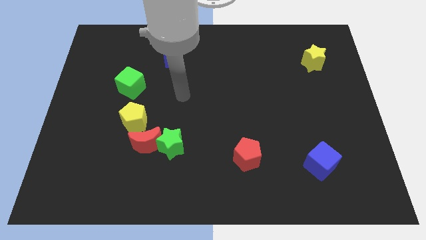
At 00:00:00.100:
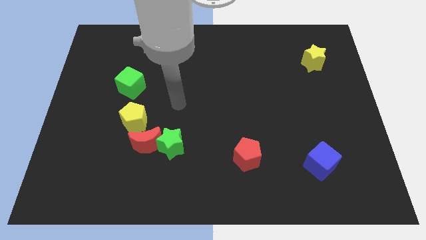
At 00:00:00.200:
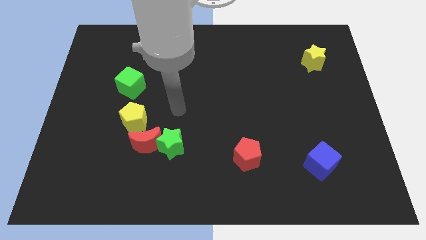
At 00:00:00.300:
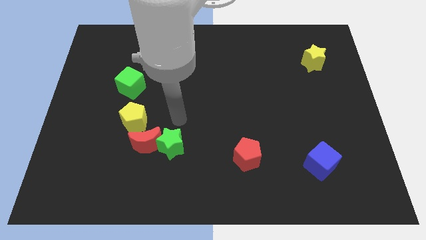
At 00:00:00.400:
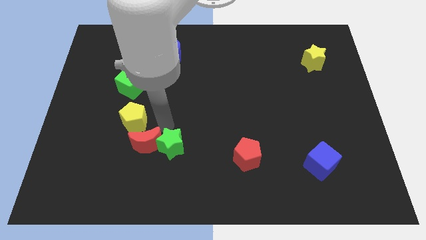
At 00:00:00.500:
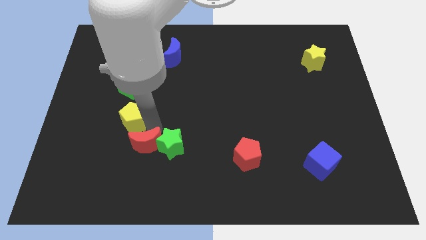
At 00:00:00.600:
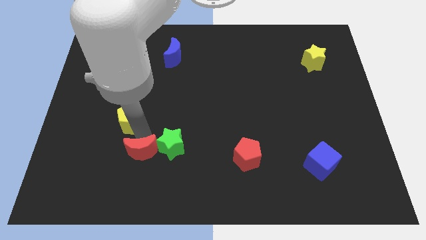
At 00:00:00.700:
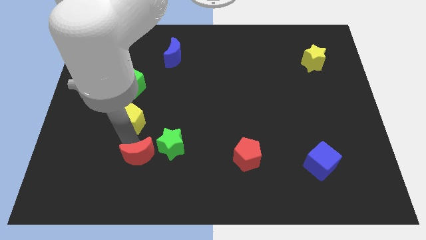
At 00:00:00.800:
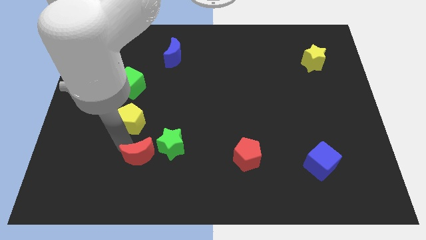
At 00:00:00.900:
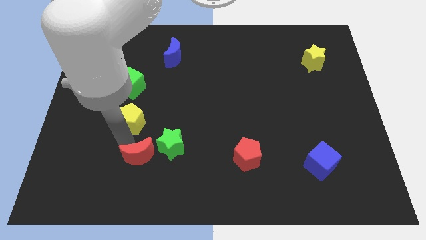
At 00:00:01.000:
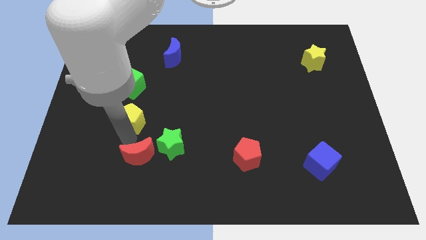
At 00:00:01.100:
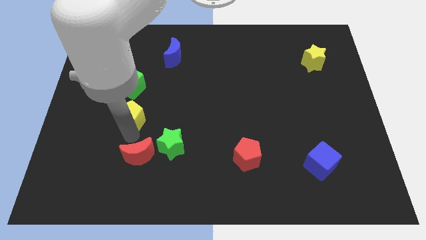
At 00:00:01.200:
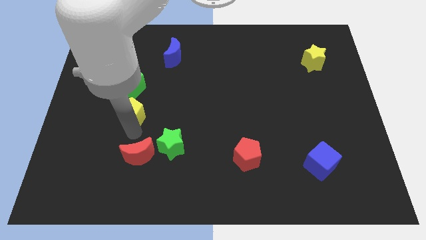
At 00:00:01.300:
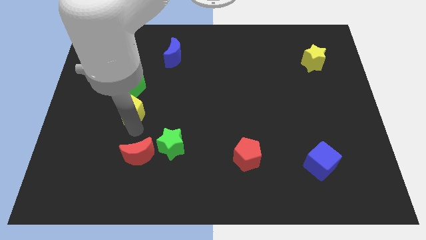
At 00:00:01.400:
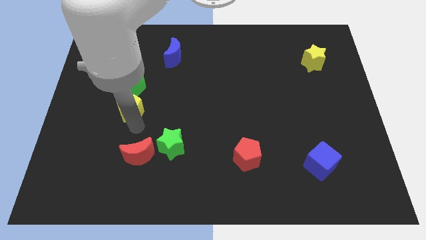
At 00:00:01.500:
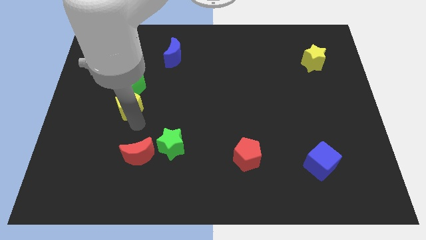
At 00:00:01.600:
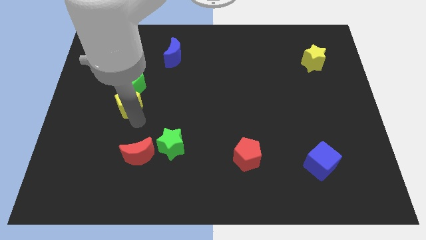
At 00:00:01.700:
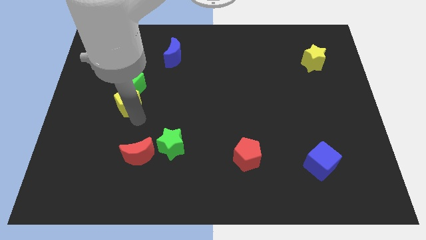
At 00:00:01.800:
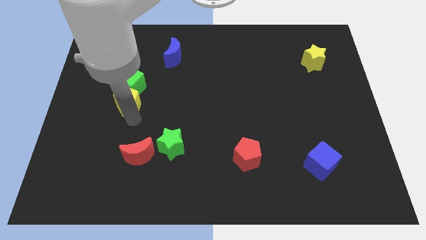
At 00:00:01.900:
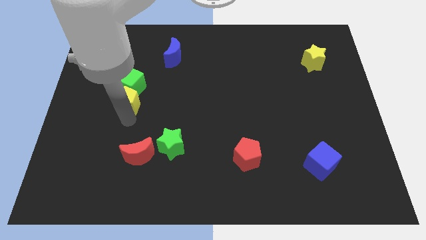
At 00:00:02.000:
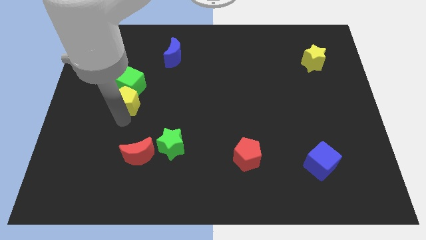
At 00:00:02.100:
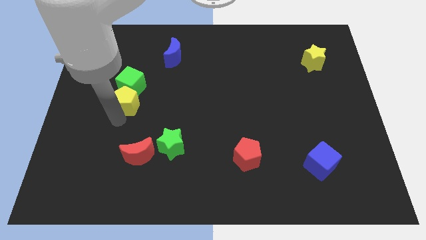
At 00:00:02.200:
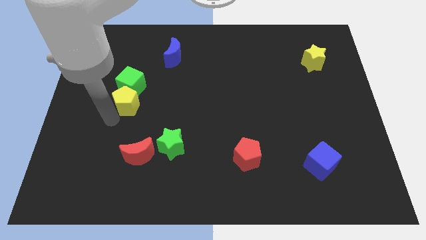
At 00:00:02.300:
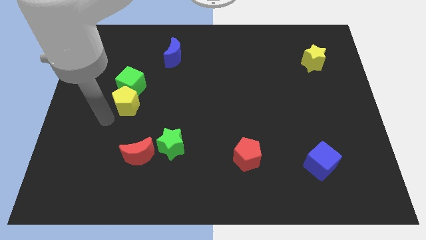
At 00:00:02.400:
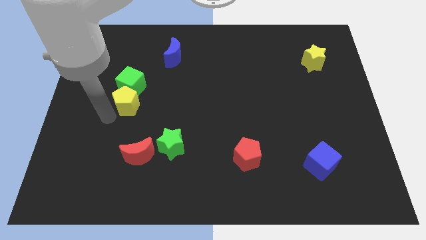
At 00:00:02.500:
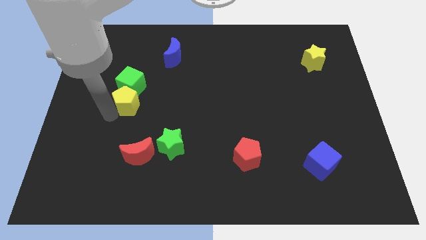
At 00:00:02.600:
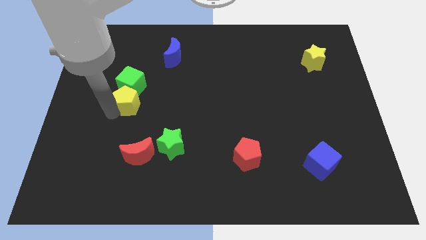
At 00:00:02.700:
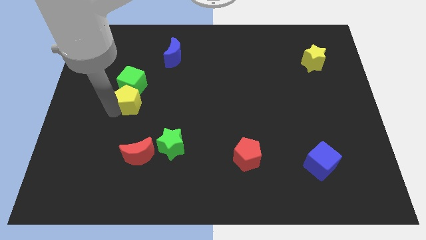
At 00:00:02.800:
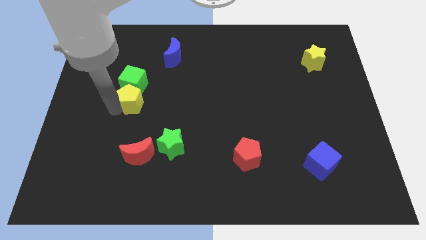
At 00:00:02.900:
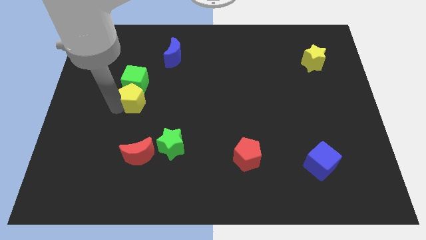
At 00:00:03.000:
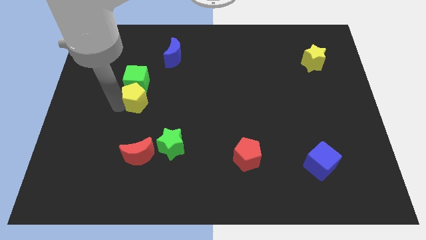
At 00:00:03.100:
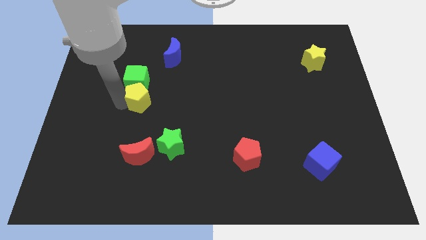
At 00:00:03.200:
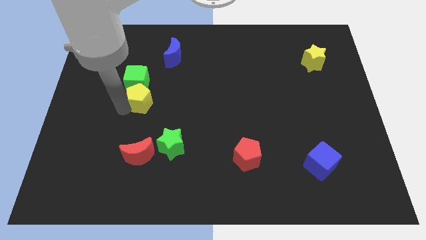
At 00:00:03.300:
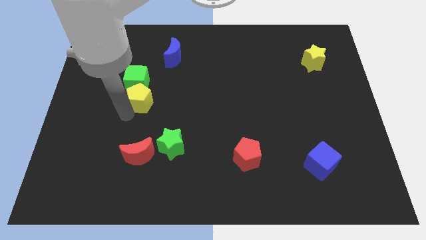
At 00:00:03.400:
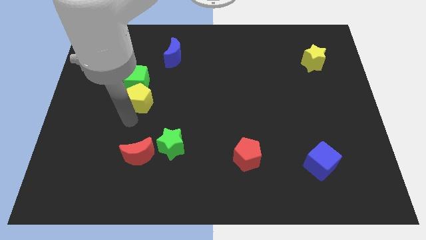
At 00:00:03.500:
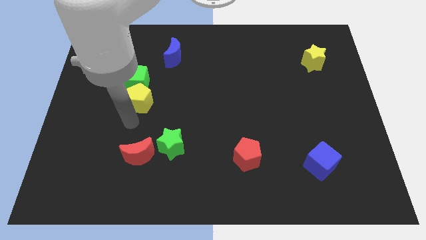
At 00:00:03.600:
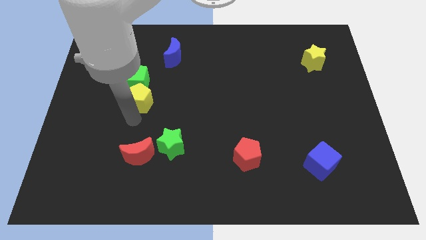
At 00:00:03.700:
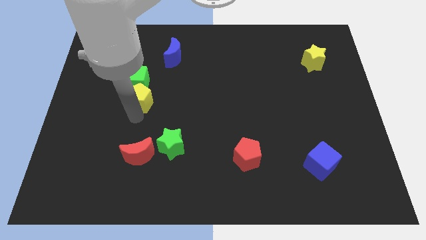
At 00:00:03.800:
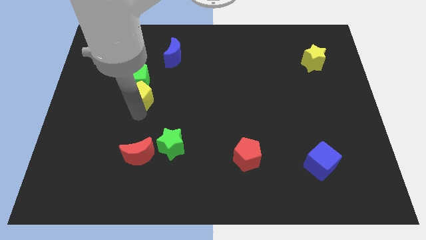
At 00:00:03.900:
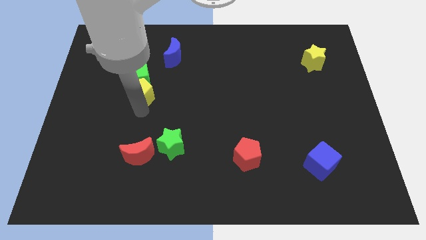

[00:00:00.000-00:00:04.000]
move the yellow pentagon a bit upwards

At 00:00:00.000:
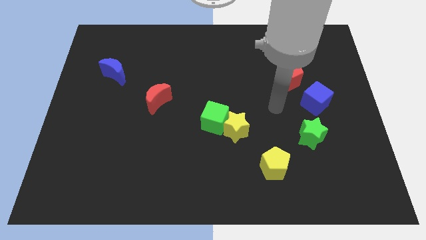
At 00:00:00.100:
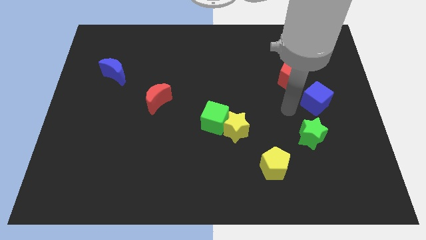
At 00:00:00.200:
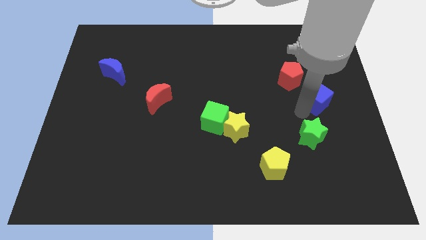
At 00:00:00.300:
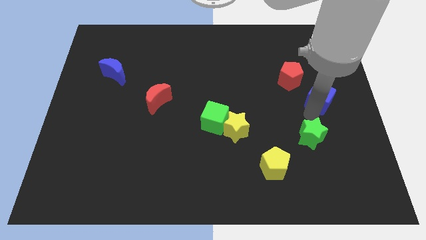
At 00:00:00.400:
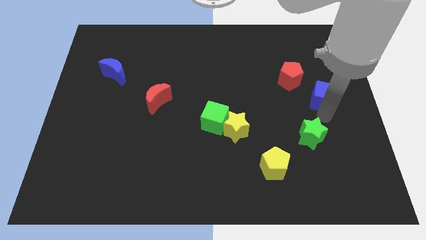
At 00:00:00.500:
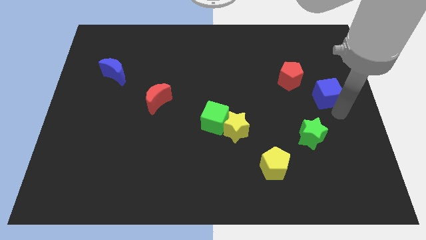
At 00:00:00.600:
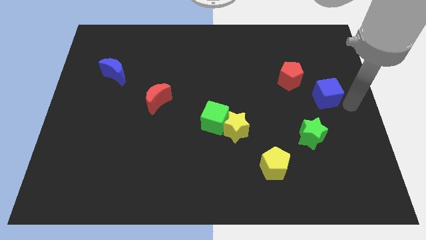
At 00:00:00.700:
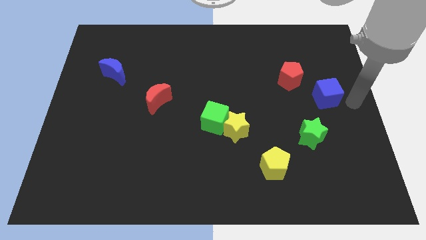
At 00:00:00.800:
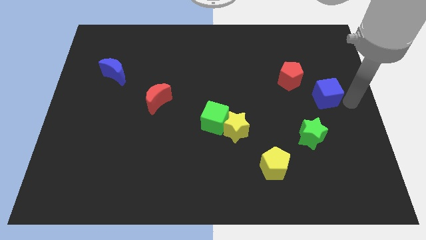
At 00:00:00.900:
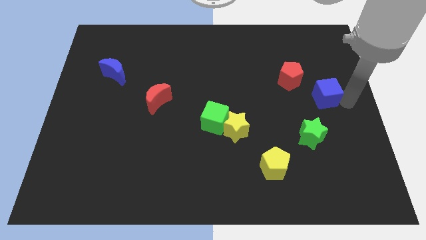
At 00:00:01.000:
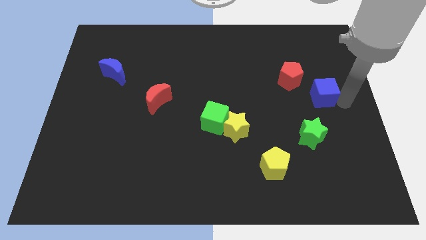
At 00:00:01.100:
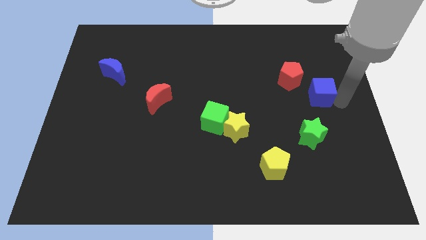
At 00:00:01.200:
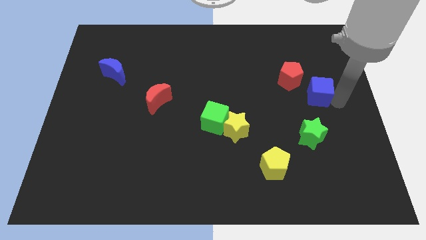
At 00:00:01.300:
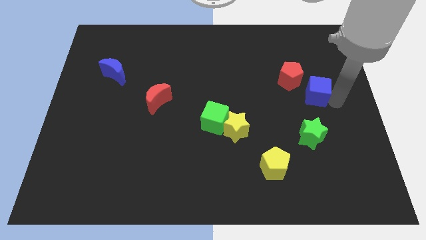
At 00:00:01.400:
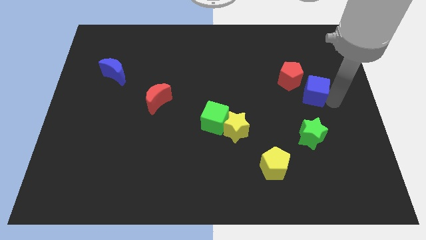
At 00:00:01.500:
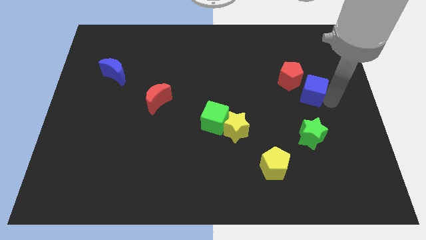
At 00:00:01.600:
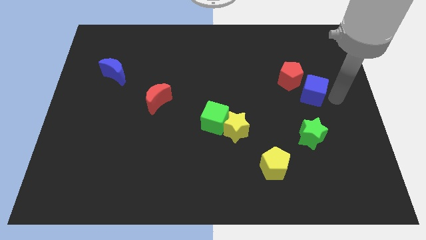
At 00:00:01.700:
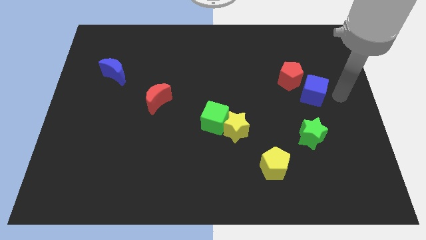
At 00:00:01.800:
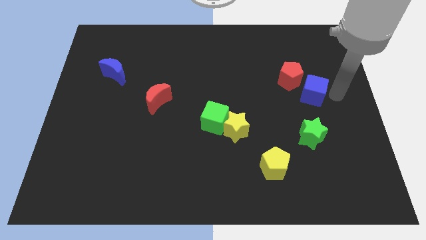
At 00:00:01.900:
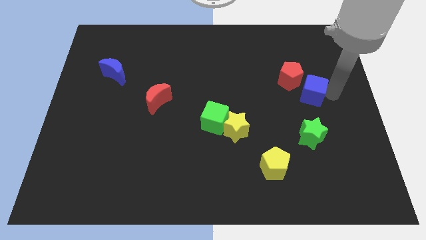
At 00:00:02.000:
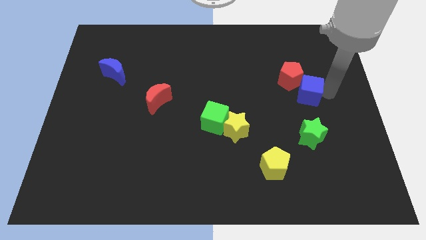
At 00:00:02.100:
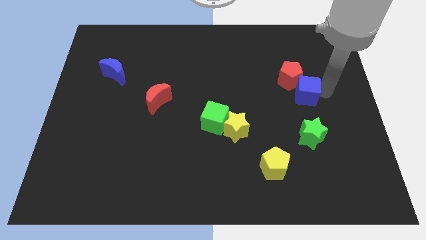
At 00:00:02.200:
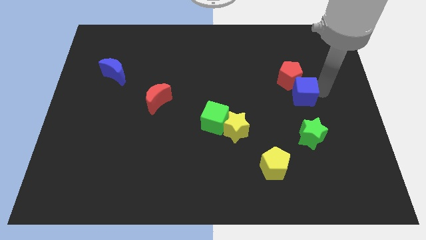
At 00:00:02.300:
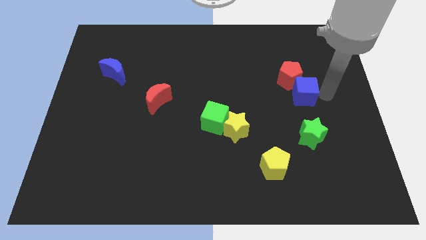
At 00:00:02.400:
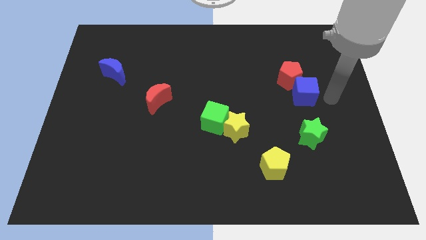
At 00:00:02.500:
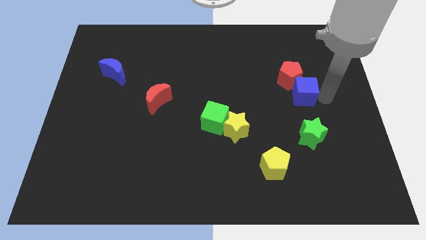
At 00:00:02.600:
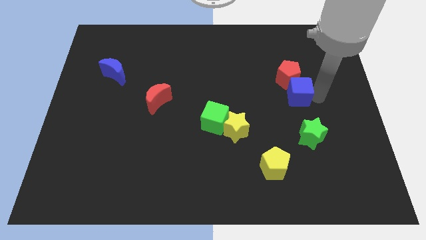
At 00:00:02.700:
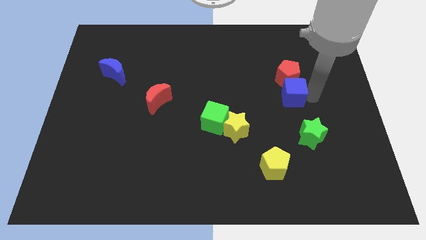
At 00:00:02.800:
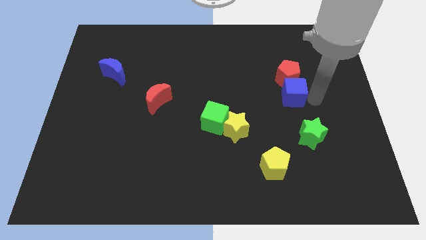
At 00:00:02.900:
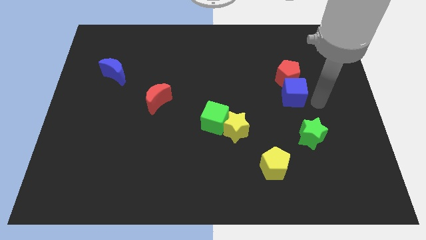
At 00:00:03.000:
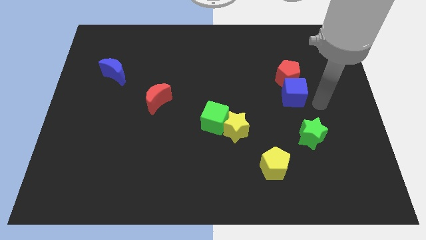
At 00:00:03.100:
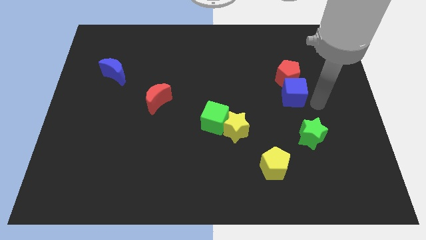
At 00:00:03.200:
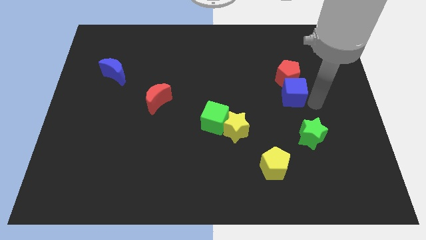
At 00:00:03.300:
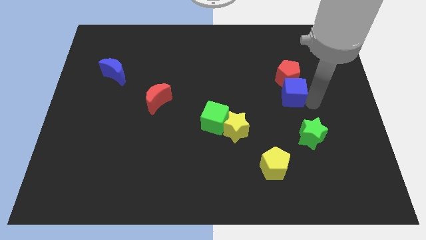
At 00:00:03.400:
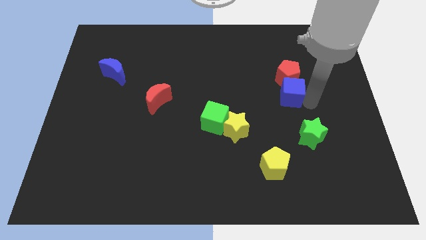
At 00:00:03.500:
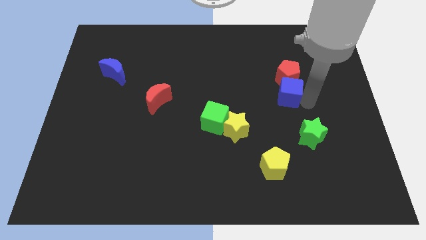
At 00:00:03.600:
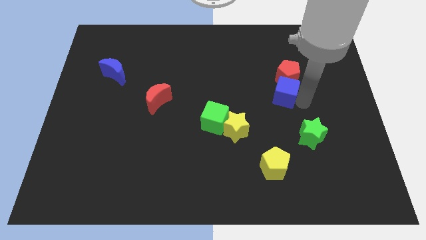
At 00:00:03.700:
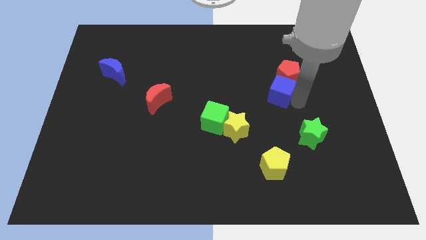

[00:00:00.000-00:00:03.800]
slide the blue cube up and to the left a little
